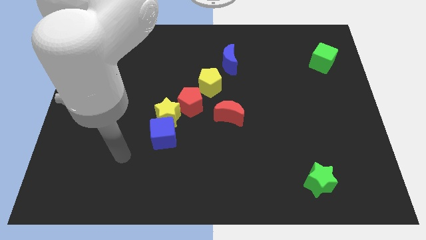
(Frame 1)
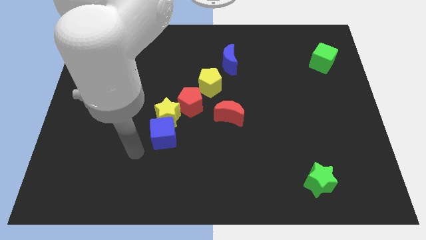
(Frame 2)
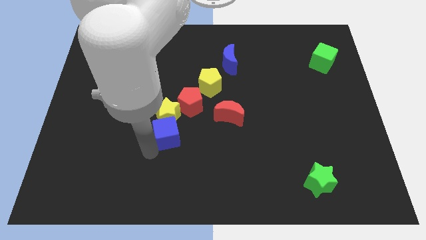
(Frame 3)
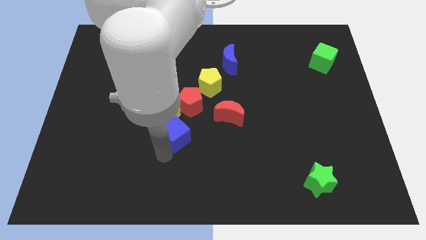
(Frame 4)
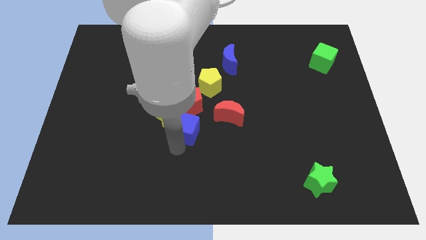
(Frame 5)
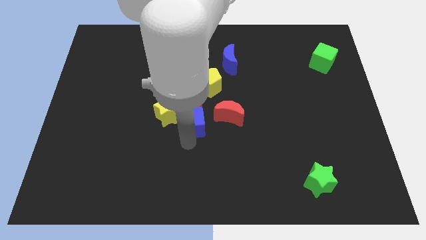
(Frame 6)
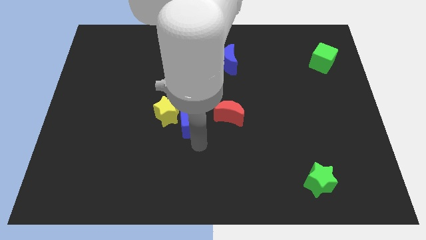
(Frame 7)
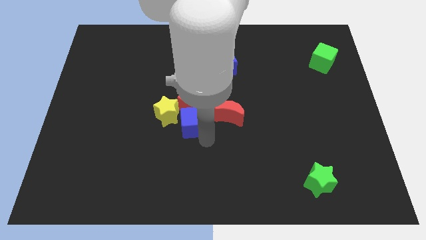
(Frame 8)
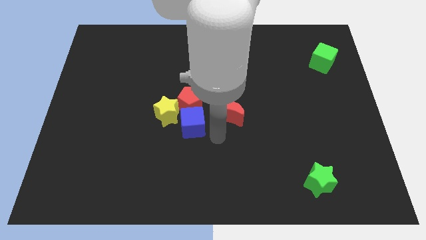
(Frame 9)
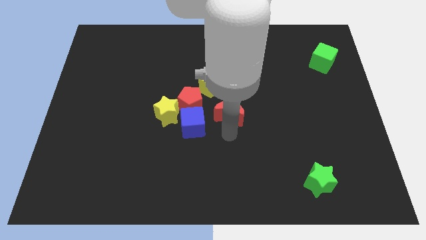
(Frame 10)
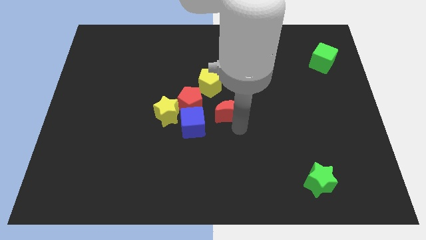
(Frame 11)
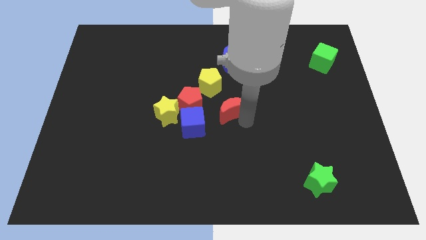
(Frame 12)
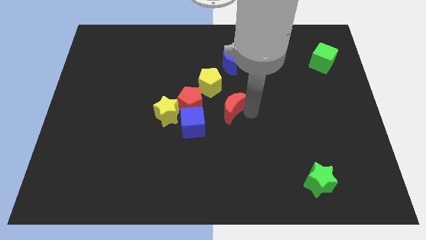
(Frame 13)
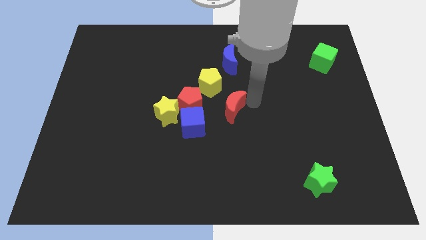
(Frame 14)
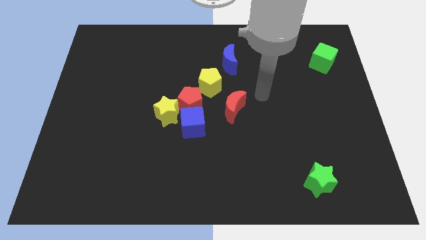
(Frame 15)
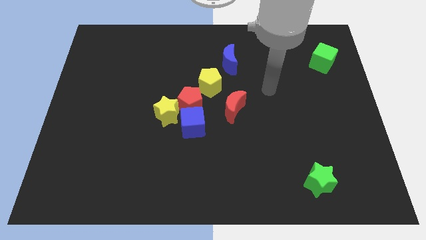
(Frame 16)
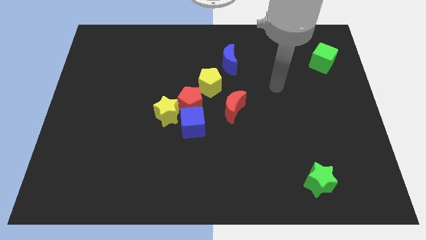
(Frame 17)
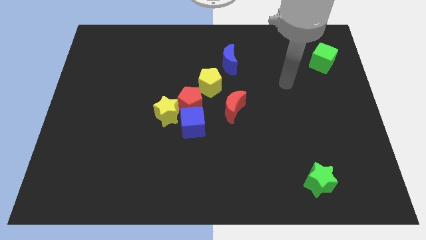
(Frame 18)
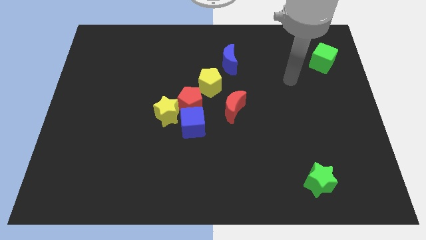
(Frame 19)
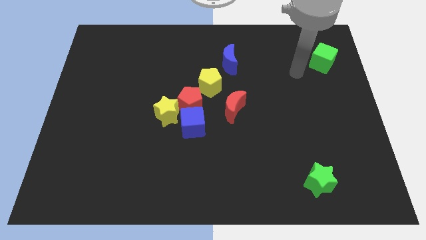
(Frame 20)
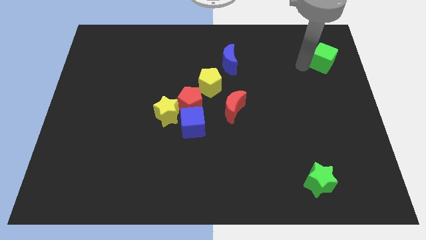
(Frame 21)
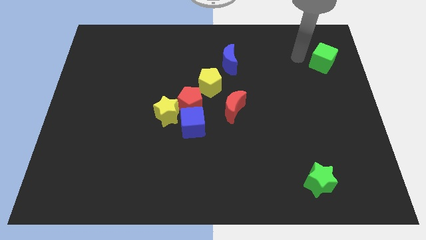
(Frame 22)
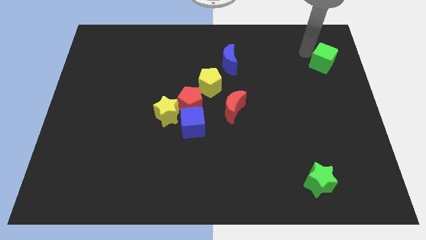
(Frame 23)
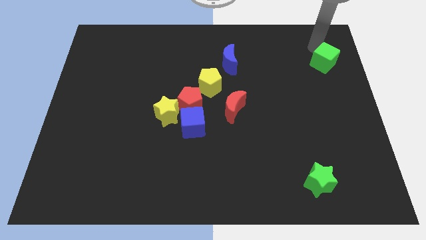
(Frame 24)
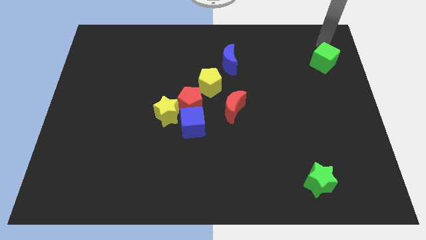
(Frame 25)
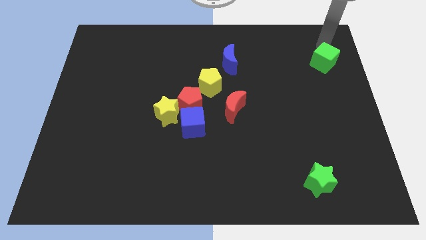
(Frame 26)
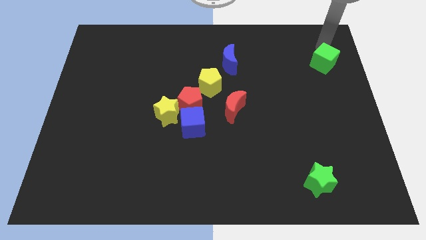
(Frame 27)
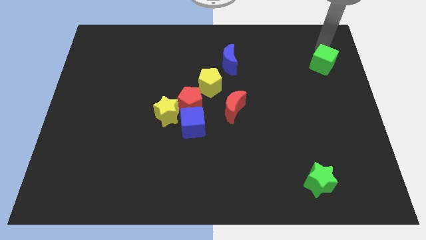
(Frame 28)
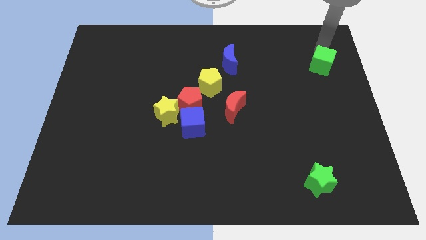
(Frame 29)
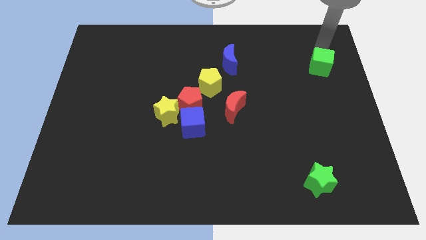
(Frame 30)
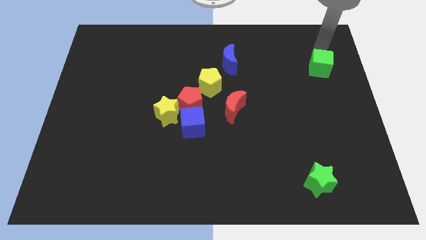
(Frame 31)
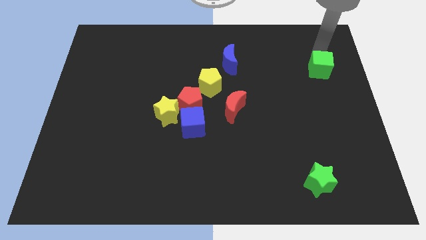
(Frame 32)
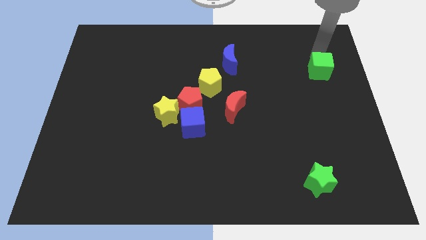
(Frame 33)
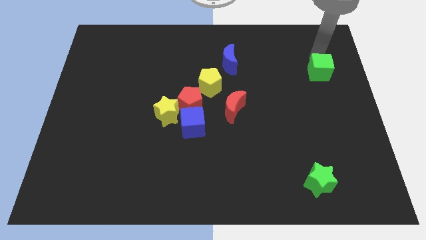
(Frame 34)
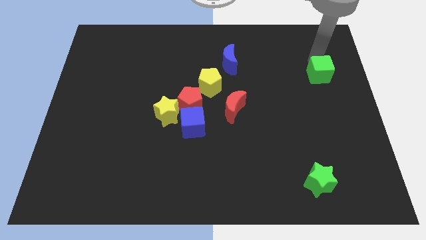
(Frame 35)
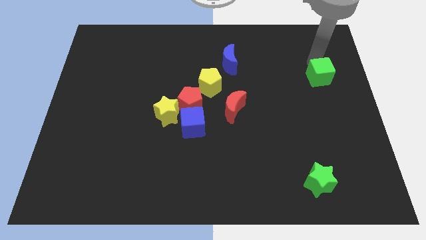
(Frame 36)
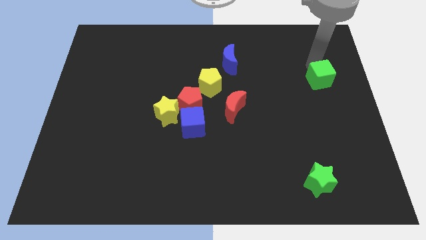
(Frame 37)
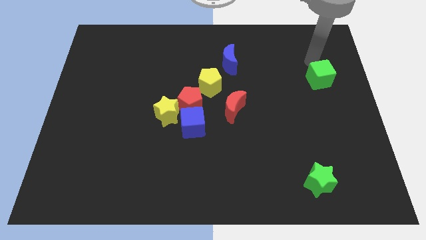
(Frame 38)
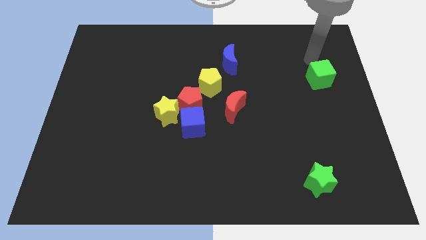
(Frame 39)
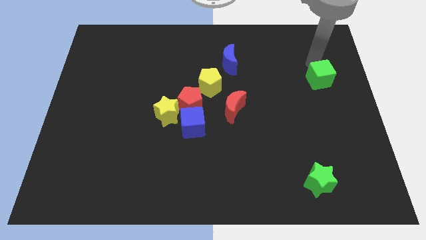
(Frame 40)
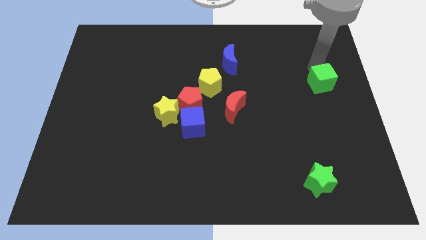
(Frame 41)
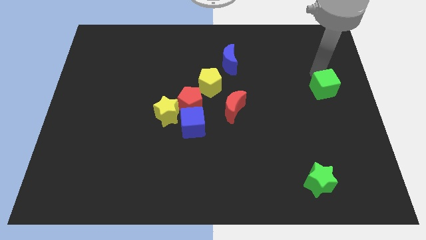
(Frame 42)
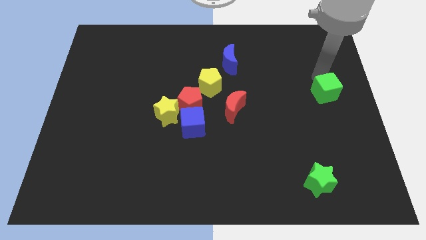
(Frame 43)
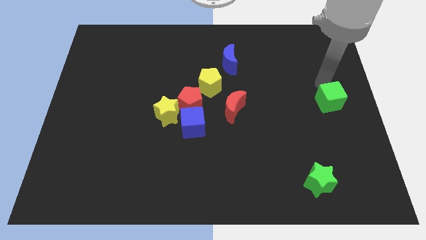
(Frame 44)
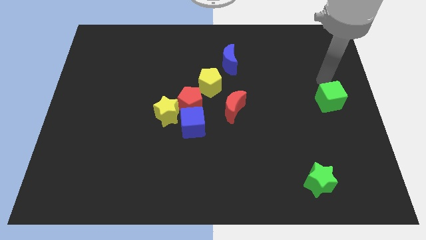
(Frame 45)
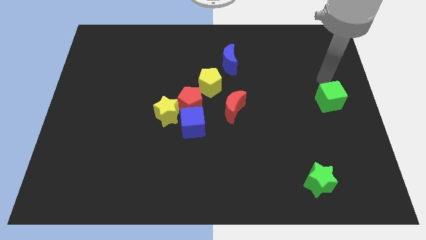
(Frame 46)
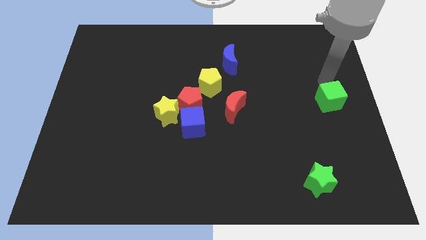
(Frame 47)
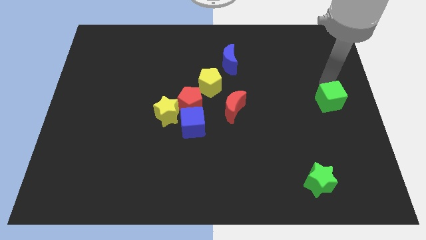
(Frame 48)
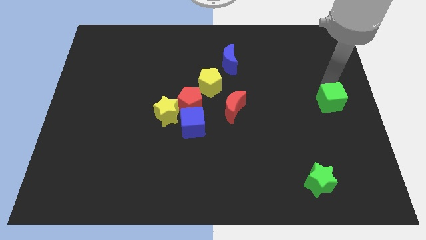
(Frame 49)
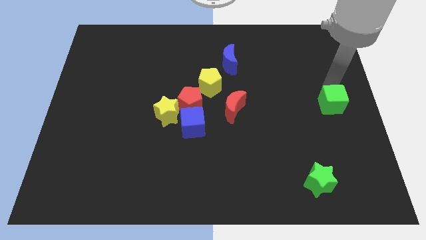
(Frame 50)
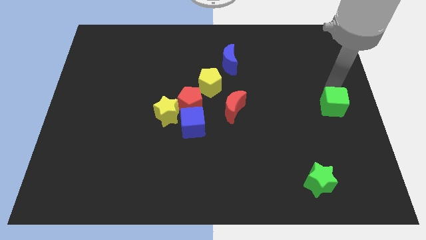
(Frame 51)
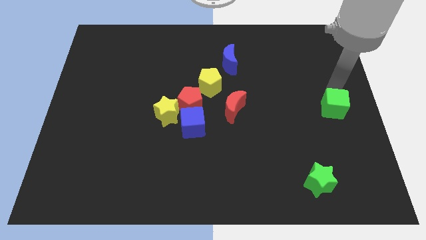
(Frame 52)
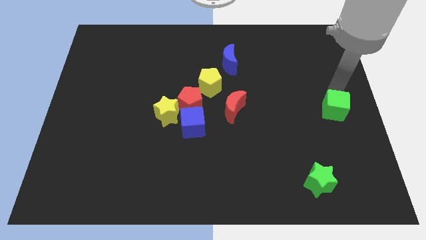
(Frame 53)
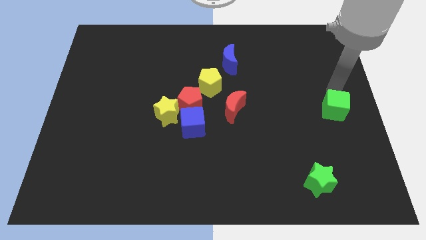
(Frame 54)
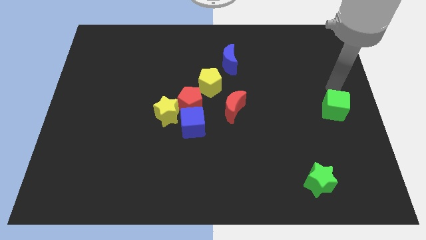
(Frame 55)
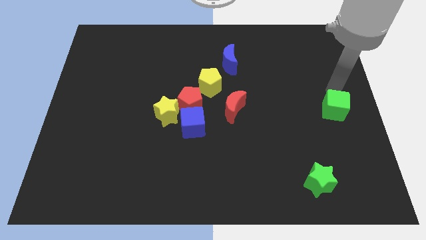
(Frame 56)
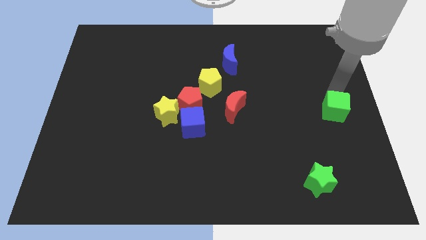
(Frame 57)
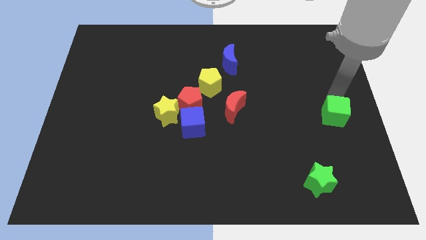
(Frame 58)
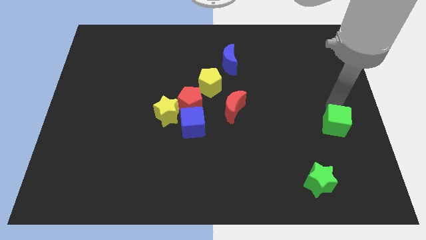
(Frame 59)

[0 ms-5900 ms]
slide the green cube down

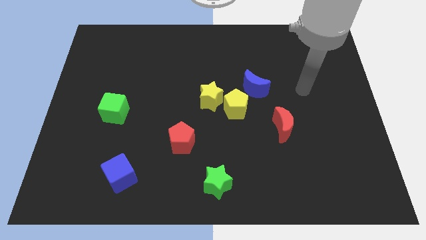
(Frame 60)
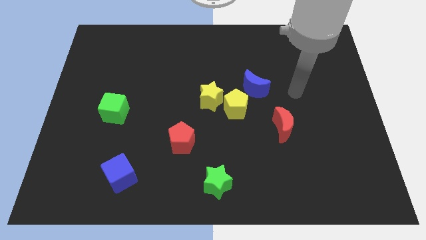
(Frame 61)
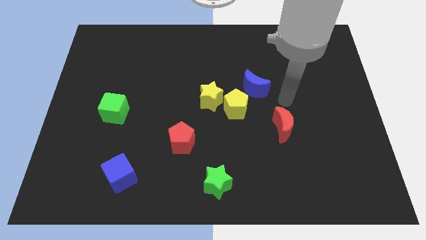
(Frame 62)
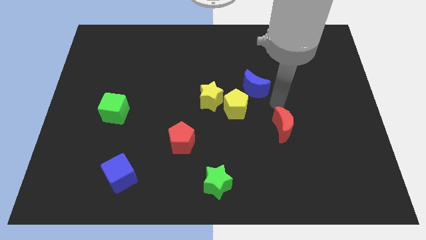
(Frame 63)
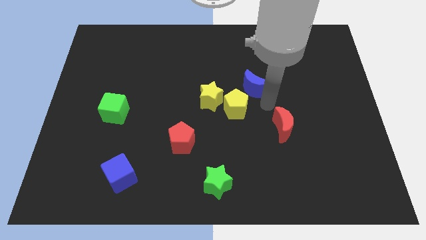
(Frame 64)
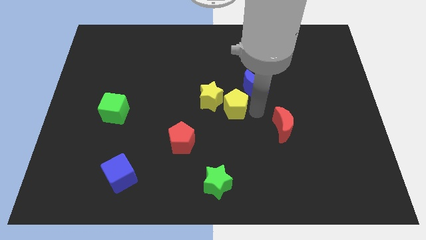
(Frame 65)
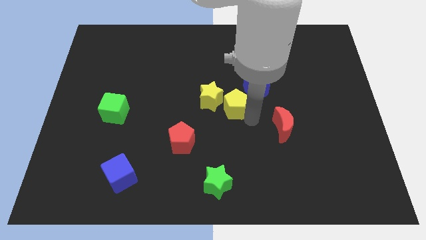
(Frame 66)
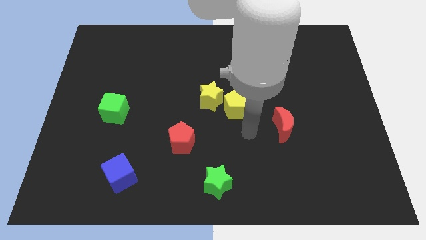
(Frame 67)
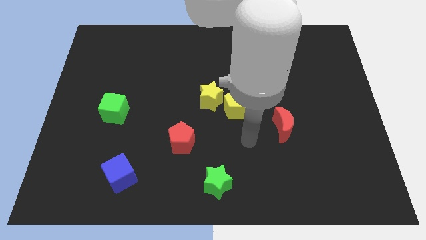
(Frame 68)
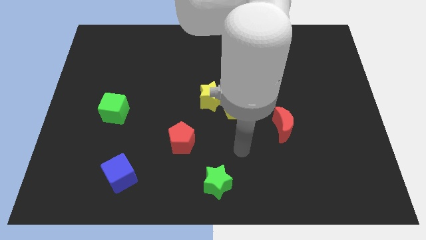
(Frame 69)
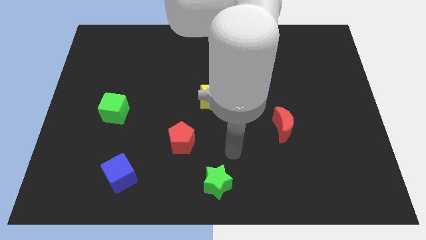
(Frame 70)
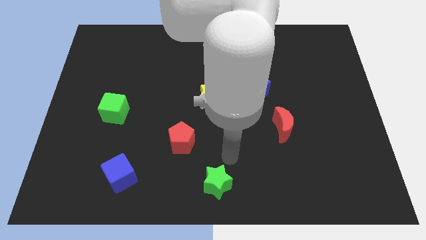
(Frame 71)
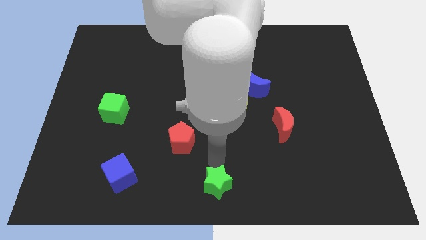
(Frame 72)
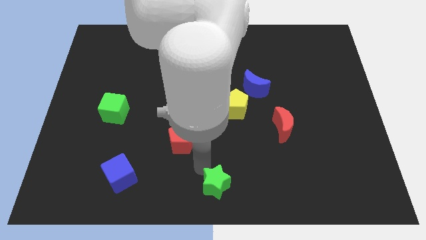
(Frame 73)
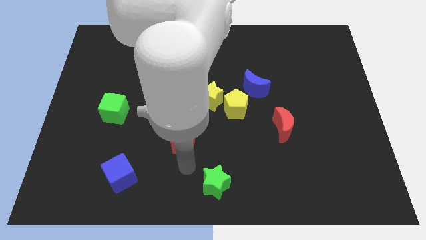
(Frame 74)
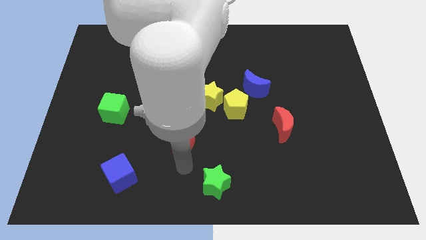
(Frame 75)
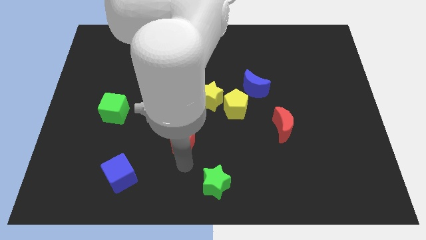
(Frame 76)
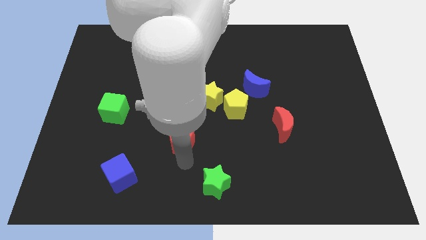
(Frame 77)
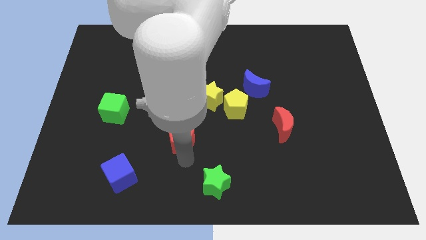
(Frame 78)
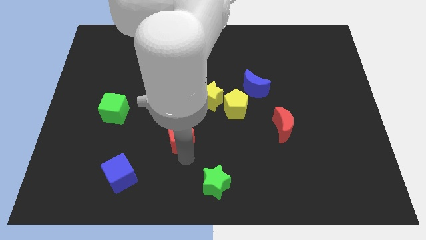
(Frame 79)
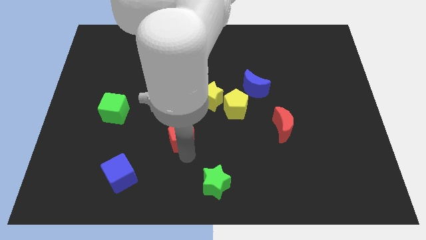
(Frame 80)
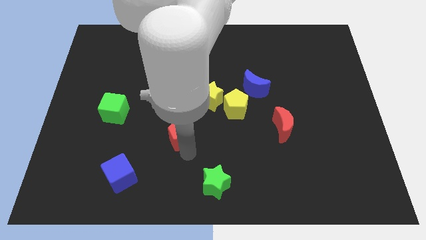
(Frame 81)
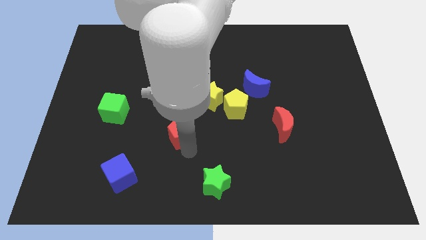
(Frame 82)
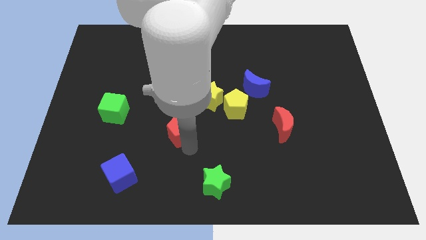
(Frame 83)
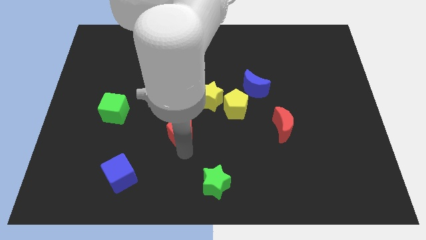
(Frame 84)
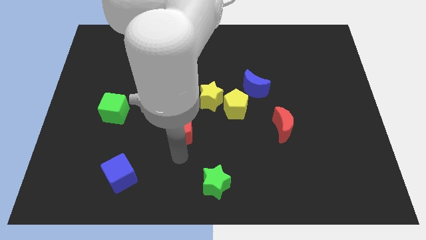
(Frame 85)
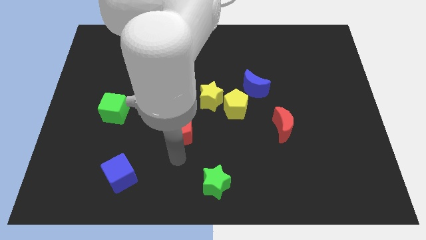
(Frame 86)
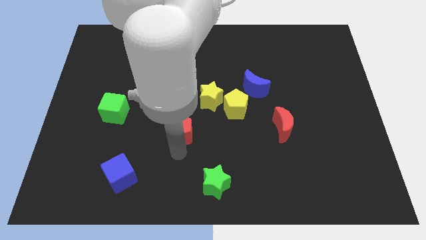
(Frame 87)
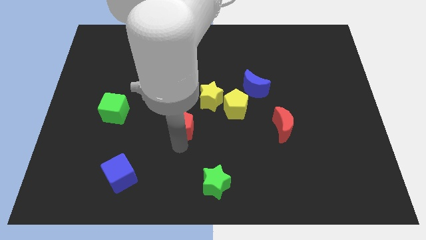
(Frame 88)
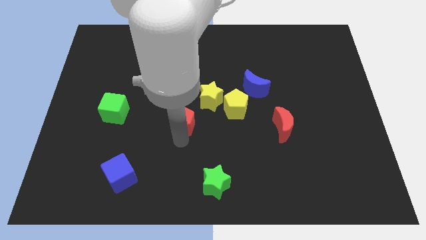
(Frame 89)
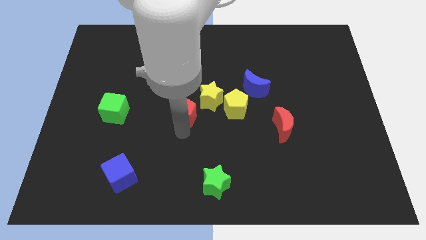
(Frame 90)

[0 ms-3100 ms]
move the red pentagon a bit upwards
